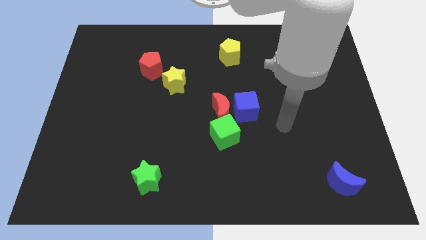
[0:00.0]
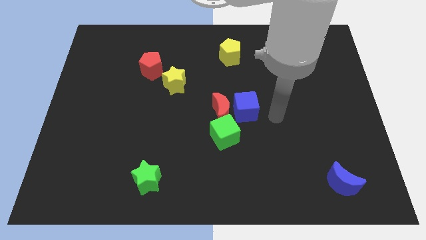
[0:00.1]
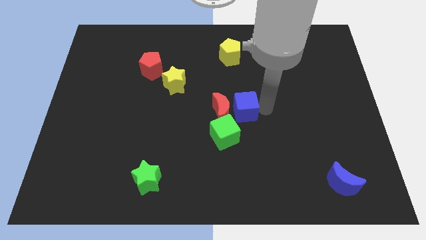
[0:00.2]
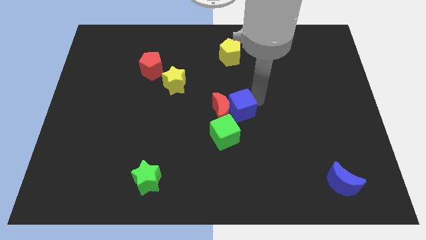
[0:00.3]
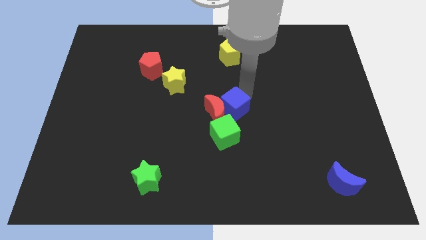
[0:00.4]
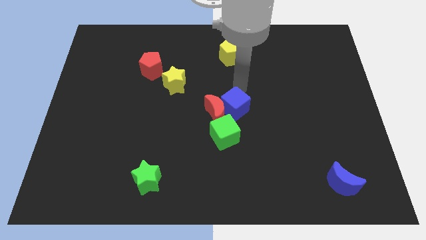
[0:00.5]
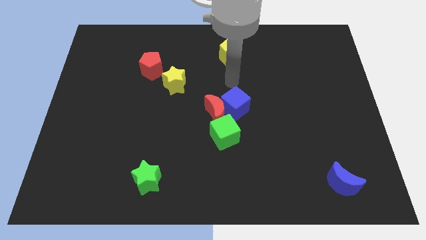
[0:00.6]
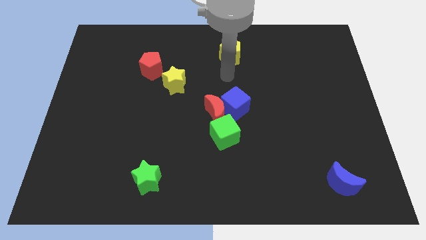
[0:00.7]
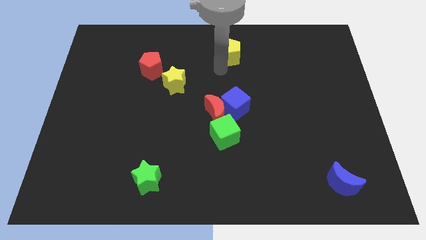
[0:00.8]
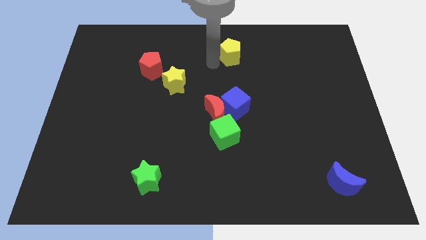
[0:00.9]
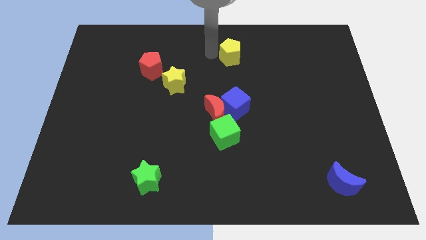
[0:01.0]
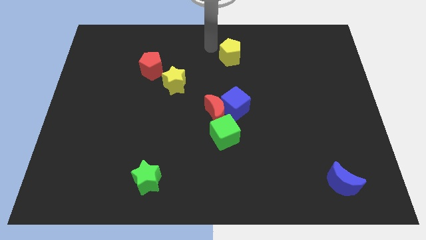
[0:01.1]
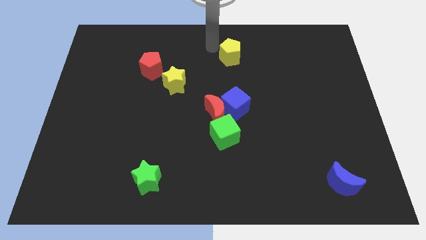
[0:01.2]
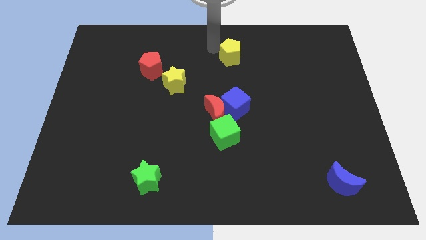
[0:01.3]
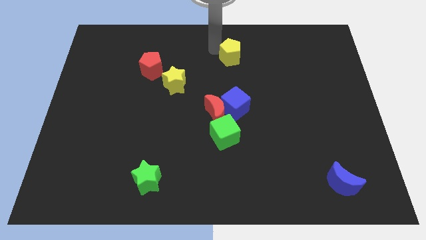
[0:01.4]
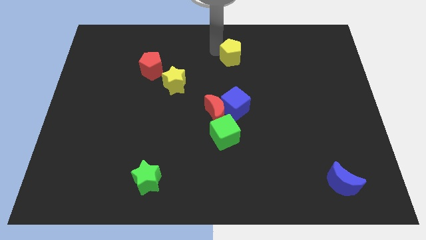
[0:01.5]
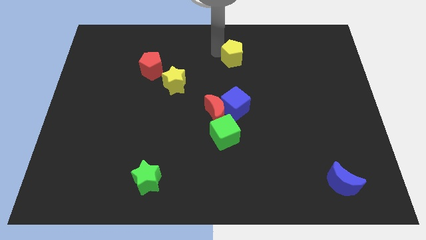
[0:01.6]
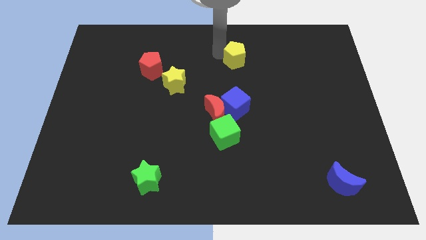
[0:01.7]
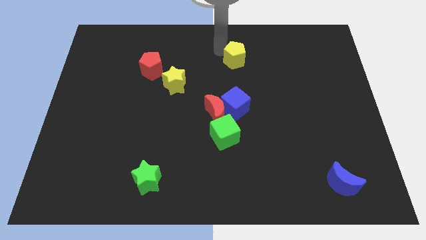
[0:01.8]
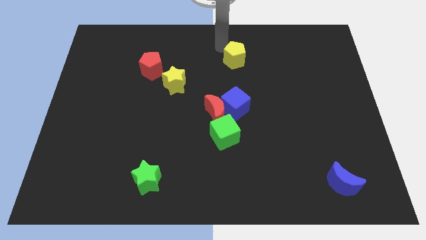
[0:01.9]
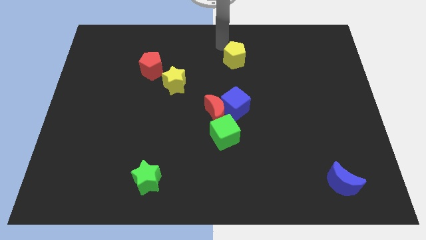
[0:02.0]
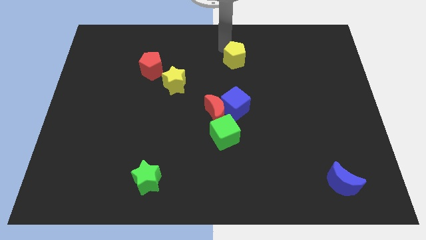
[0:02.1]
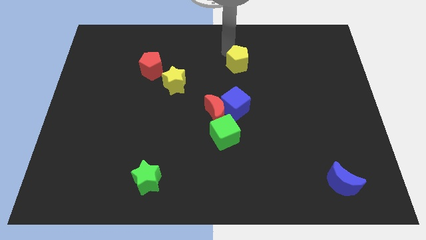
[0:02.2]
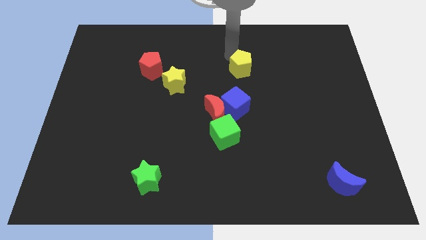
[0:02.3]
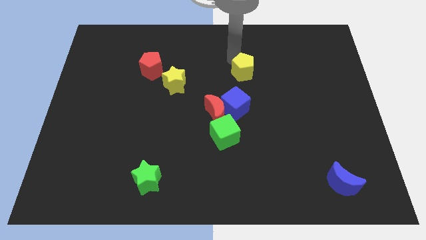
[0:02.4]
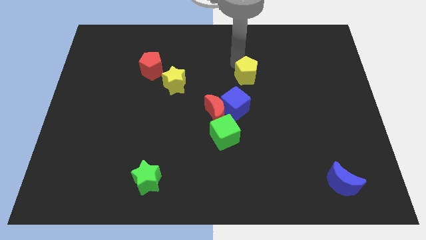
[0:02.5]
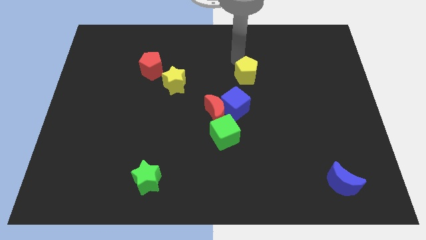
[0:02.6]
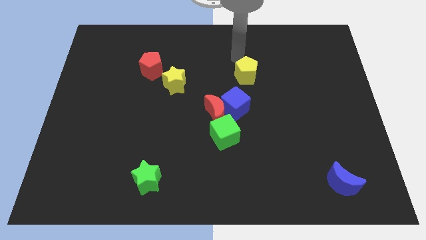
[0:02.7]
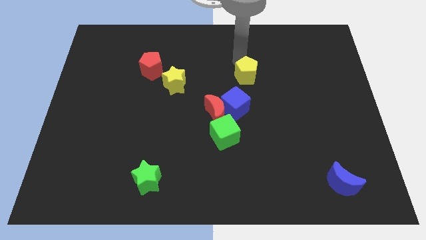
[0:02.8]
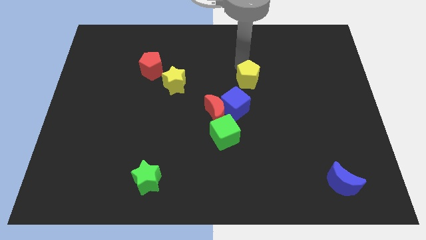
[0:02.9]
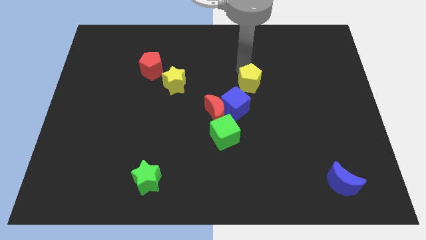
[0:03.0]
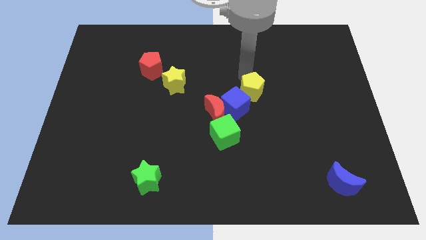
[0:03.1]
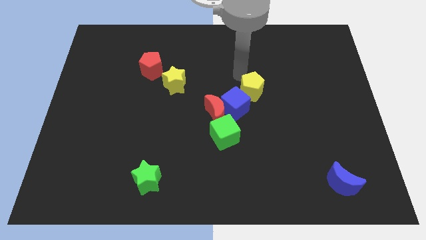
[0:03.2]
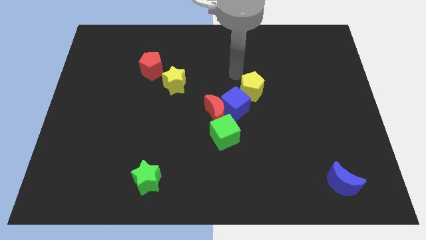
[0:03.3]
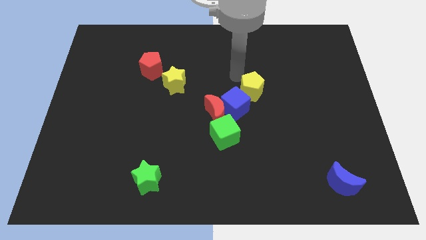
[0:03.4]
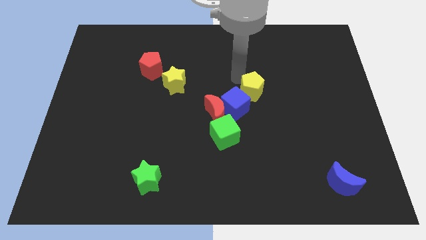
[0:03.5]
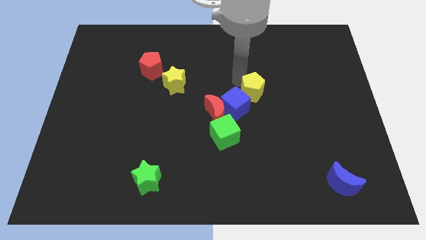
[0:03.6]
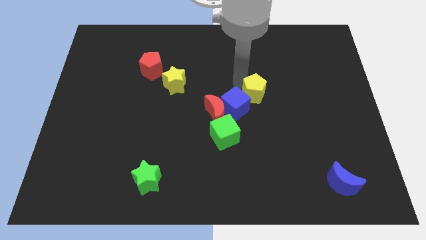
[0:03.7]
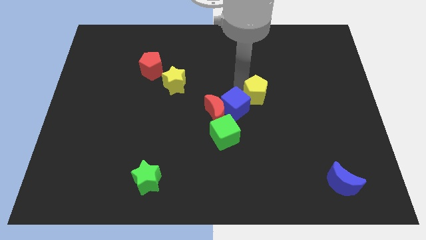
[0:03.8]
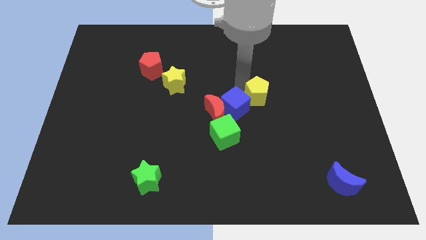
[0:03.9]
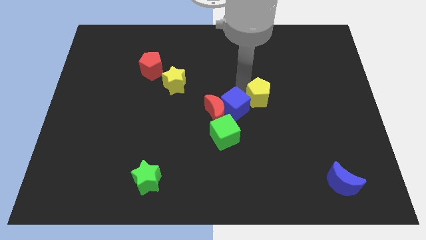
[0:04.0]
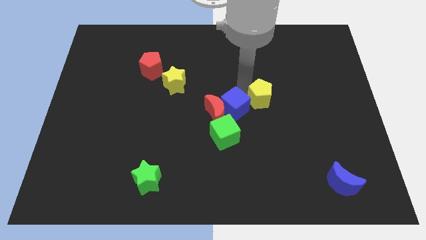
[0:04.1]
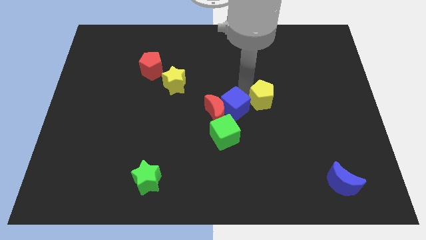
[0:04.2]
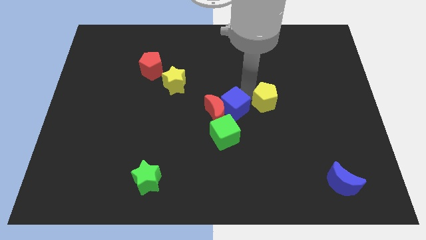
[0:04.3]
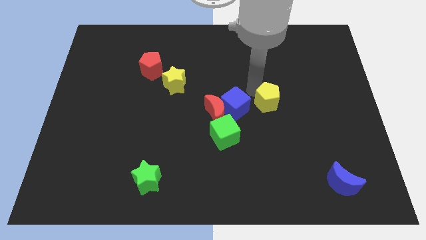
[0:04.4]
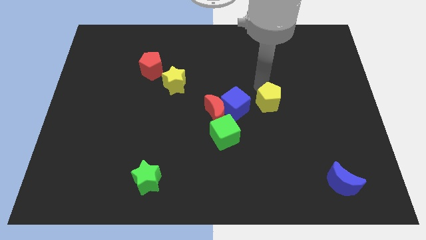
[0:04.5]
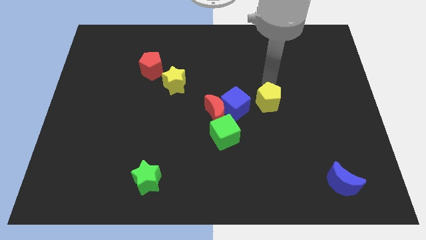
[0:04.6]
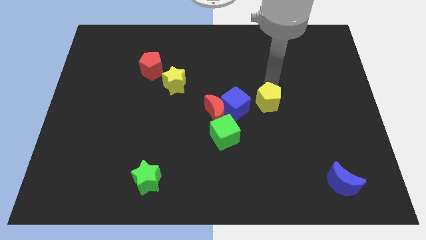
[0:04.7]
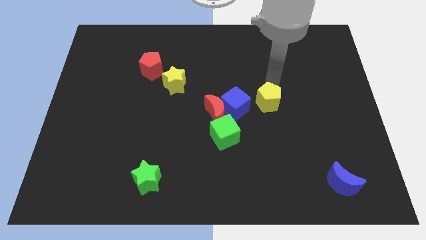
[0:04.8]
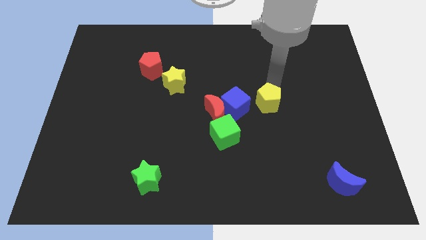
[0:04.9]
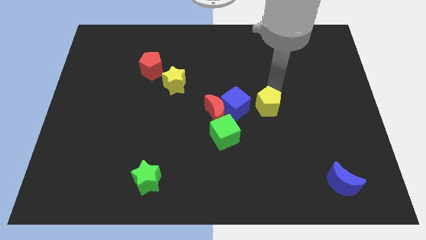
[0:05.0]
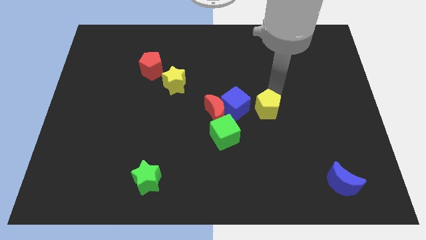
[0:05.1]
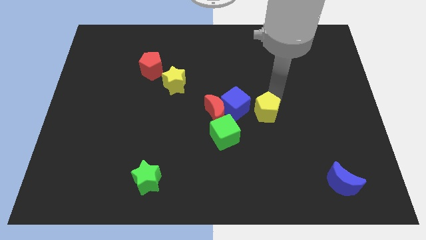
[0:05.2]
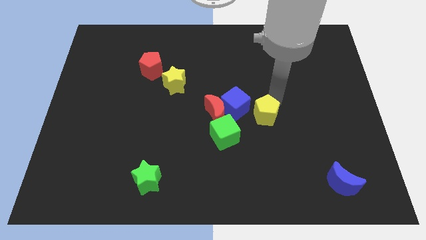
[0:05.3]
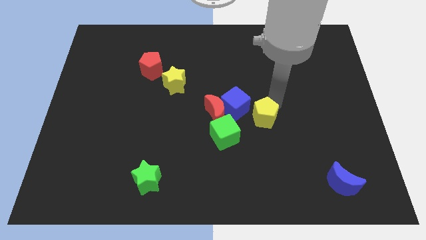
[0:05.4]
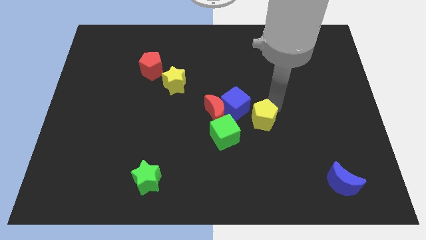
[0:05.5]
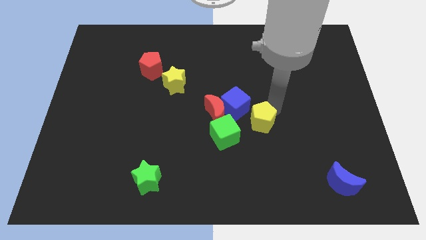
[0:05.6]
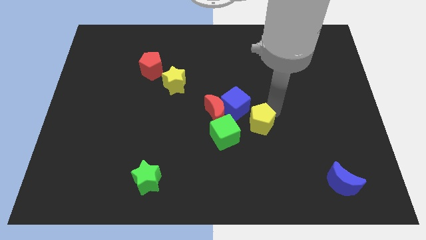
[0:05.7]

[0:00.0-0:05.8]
move the yellow pentagon down

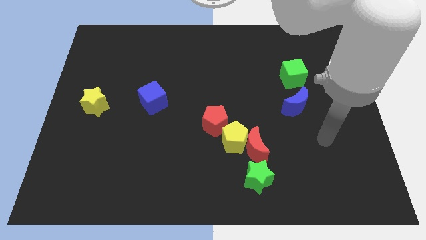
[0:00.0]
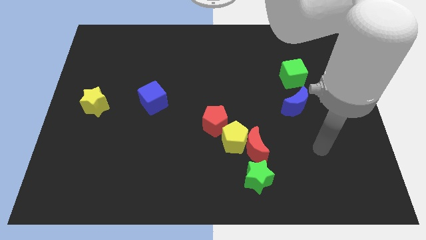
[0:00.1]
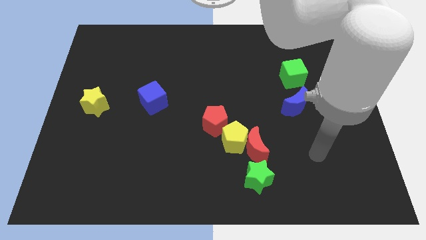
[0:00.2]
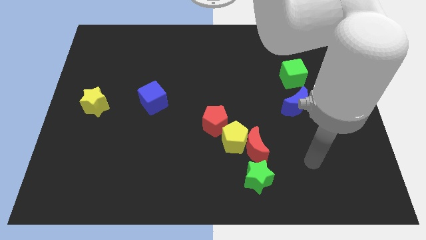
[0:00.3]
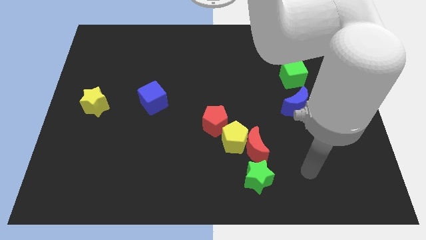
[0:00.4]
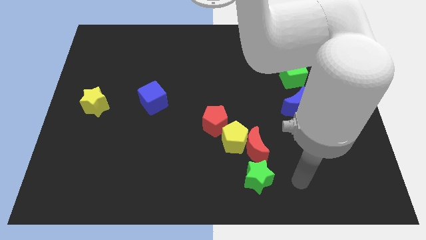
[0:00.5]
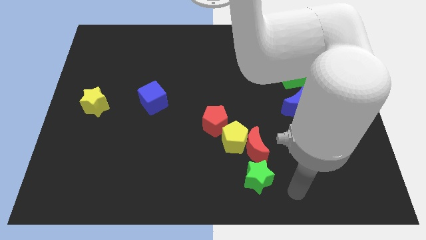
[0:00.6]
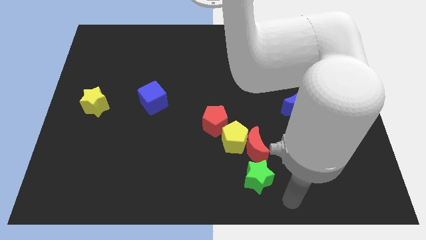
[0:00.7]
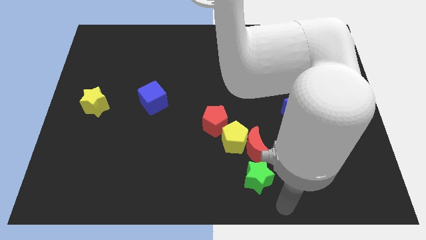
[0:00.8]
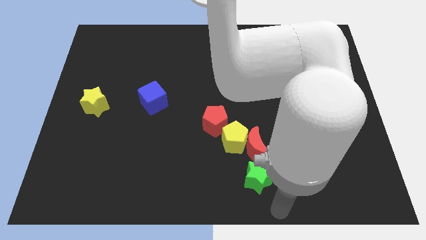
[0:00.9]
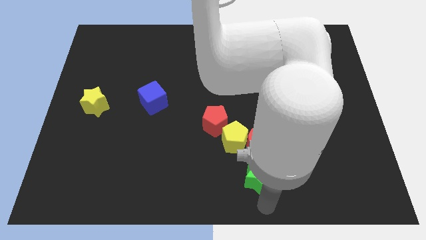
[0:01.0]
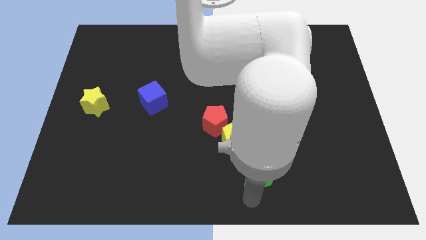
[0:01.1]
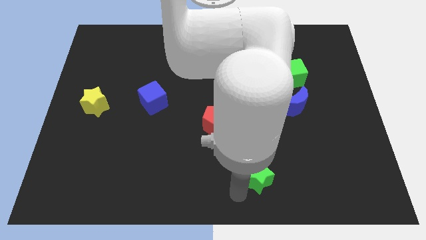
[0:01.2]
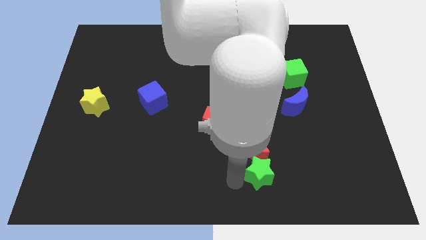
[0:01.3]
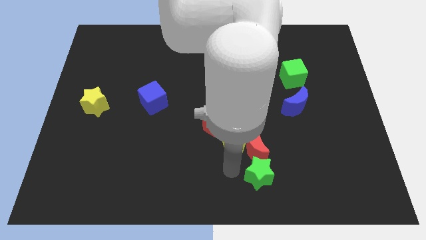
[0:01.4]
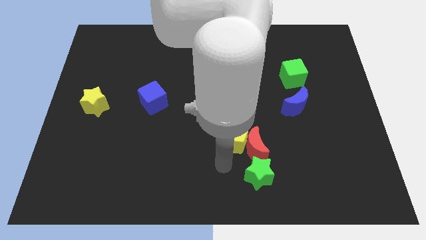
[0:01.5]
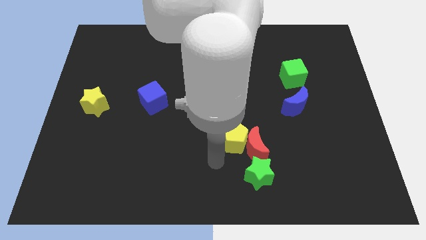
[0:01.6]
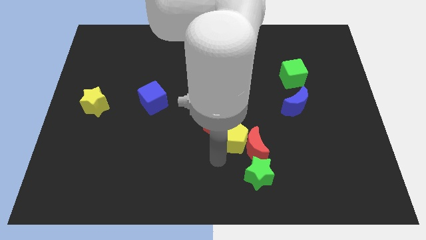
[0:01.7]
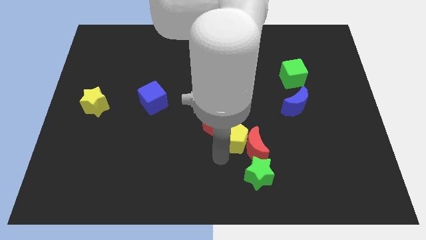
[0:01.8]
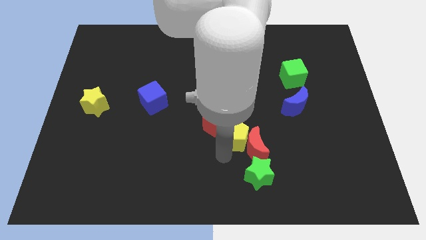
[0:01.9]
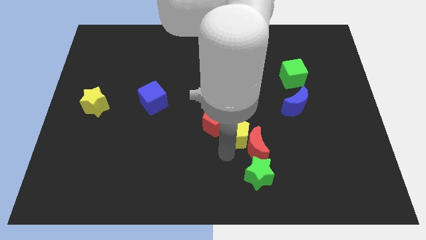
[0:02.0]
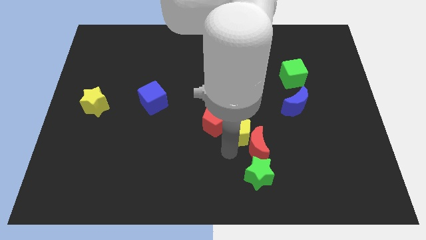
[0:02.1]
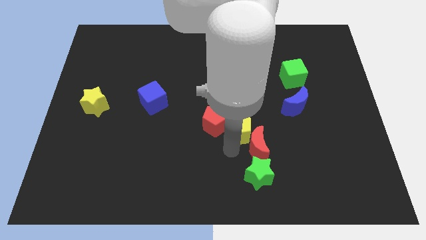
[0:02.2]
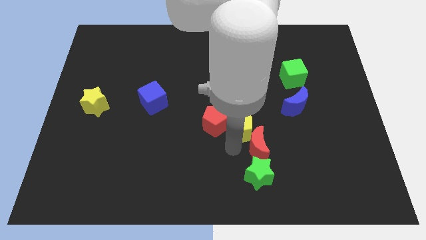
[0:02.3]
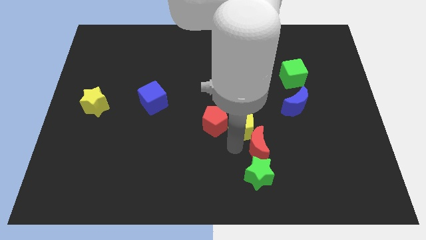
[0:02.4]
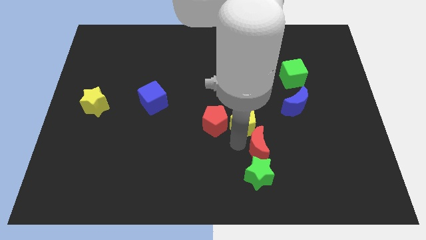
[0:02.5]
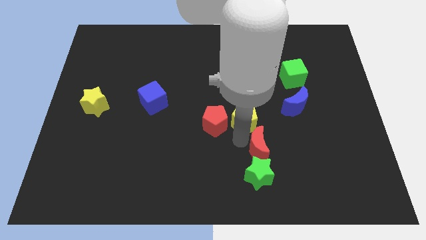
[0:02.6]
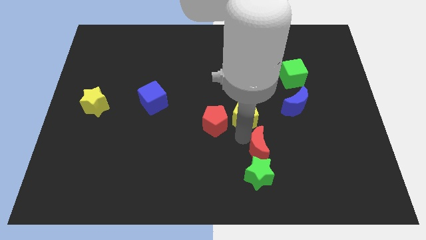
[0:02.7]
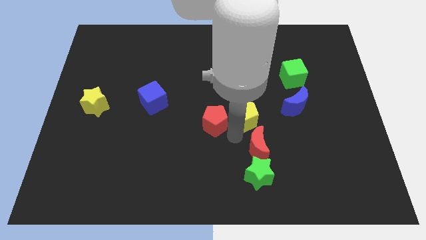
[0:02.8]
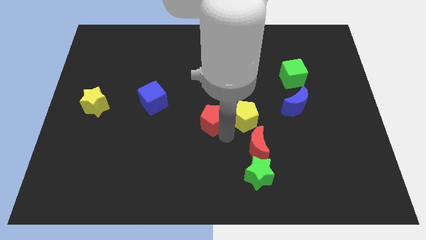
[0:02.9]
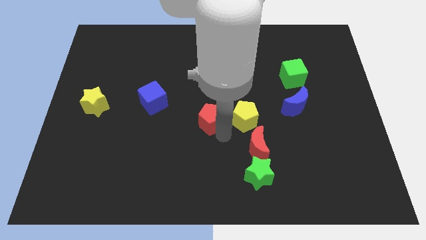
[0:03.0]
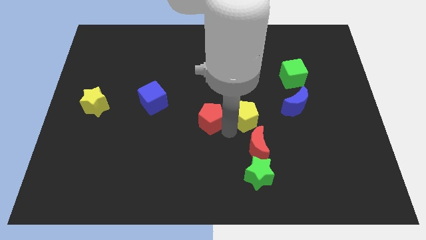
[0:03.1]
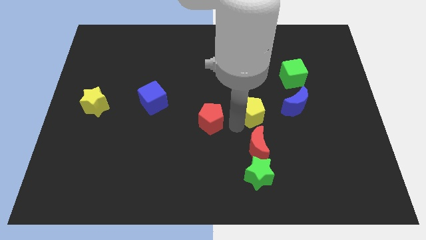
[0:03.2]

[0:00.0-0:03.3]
slightly push the yellow pentagon diagonally upwards and right
